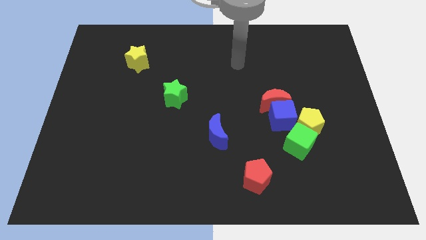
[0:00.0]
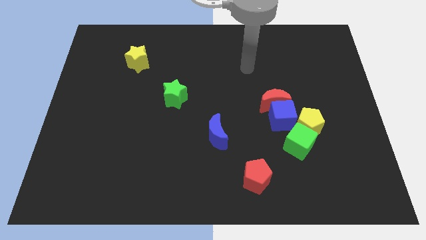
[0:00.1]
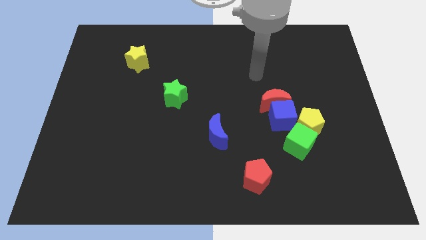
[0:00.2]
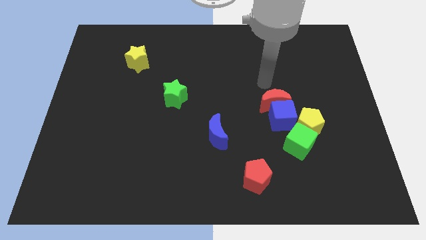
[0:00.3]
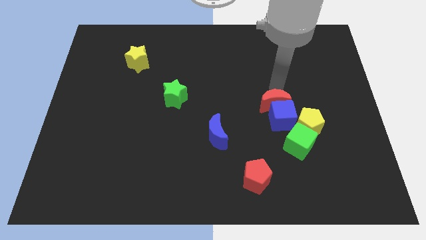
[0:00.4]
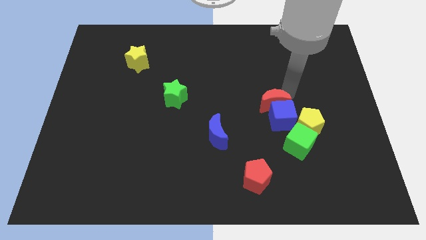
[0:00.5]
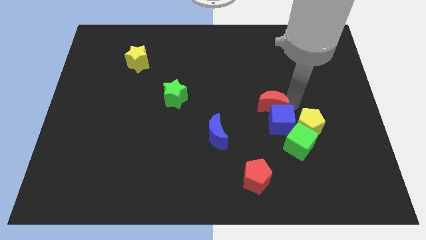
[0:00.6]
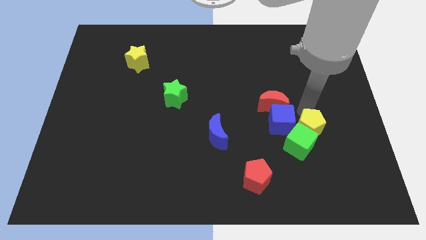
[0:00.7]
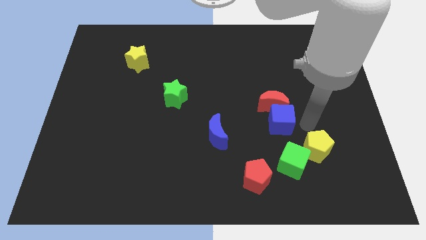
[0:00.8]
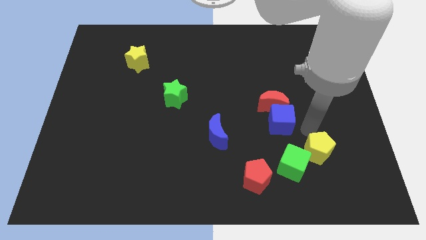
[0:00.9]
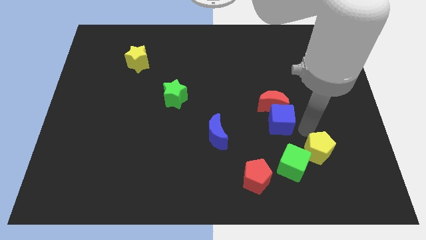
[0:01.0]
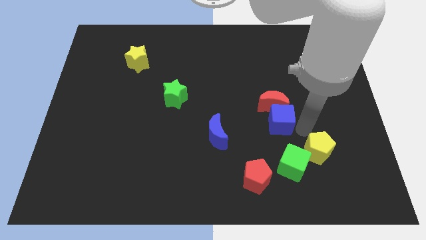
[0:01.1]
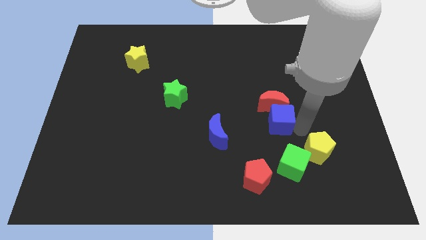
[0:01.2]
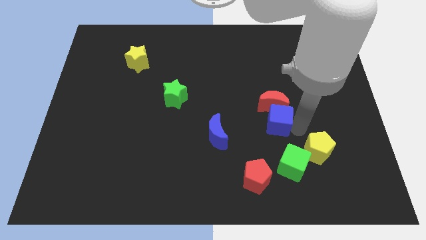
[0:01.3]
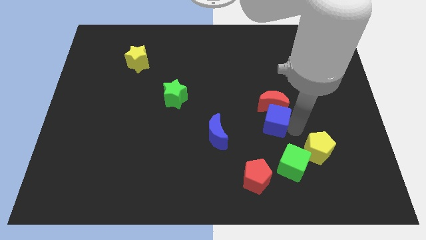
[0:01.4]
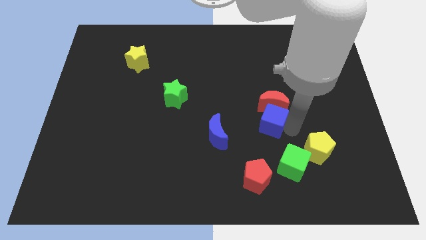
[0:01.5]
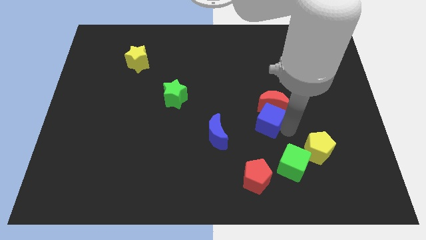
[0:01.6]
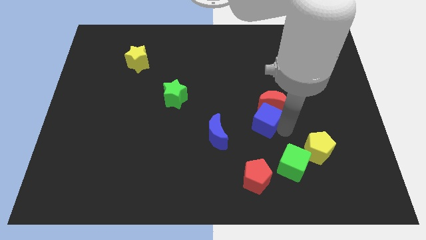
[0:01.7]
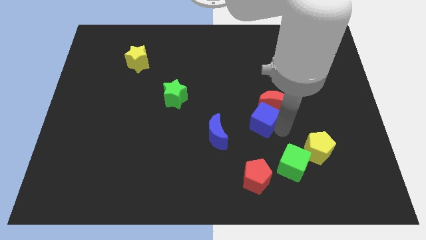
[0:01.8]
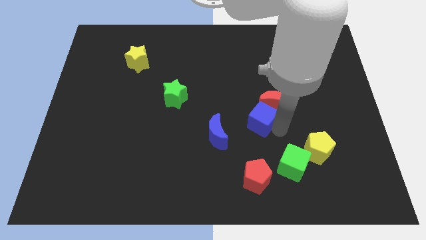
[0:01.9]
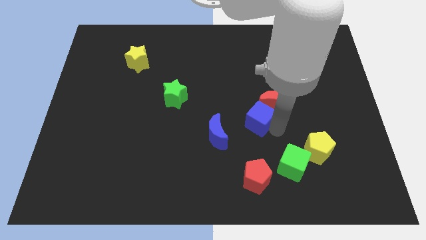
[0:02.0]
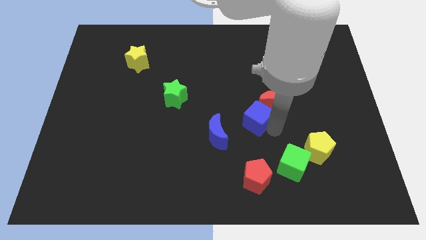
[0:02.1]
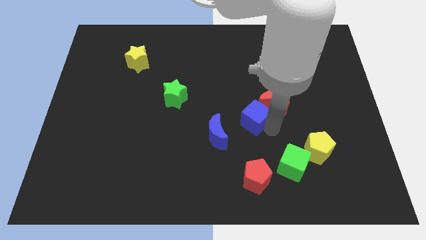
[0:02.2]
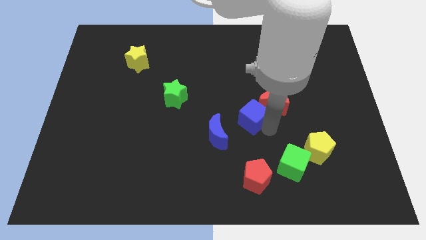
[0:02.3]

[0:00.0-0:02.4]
pull the blue cube apart from the clump

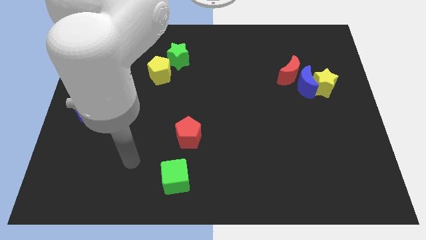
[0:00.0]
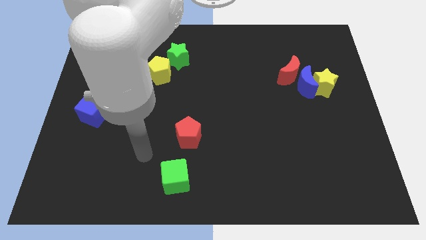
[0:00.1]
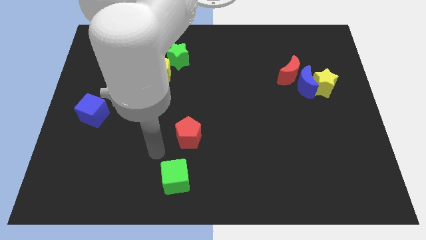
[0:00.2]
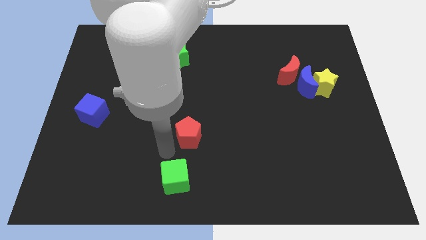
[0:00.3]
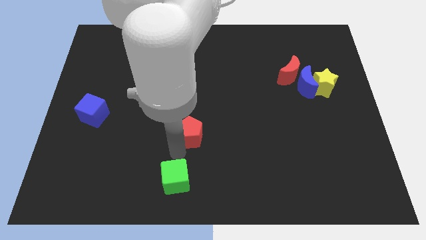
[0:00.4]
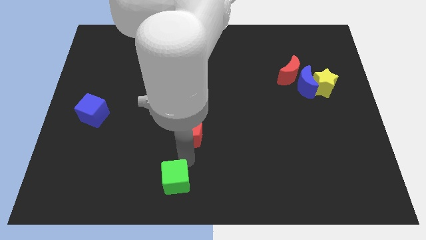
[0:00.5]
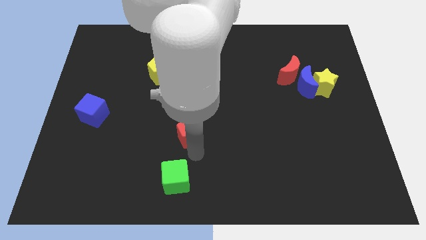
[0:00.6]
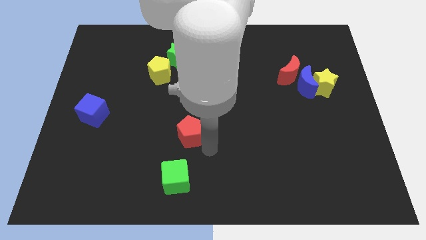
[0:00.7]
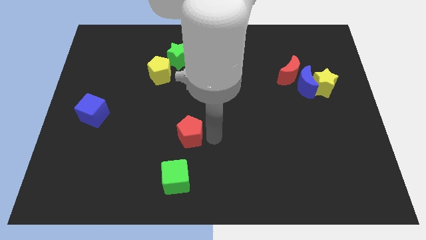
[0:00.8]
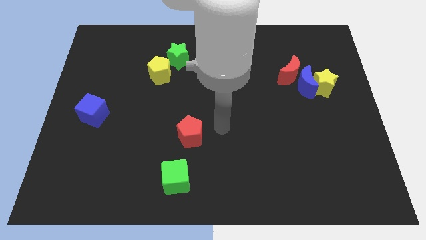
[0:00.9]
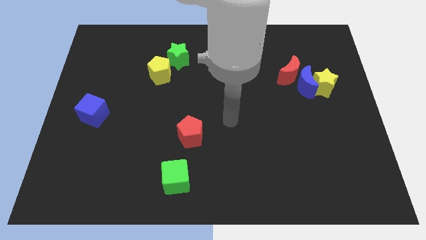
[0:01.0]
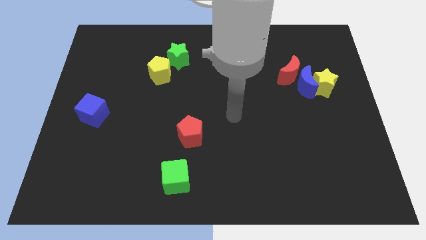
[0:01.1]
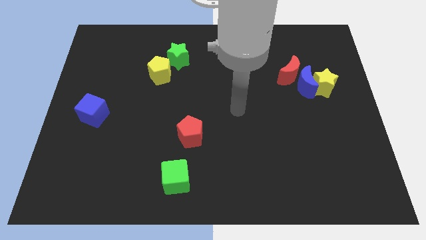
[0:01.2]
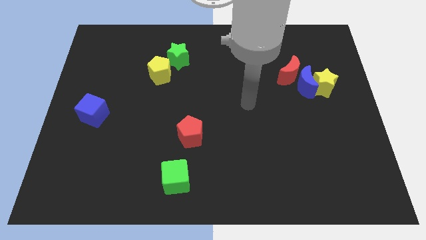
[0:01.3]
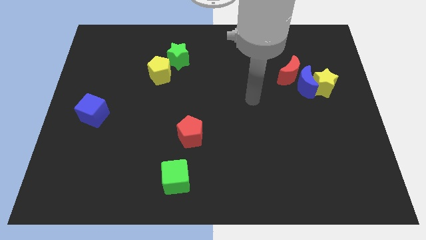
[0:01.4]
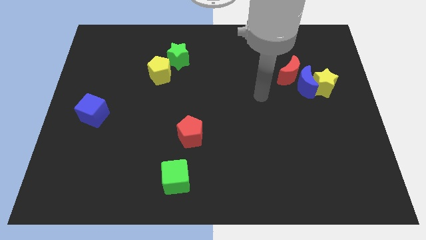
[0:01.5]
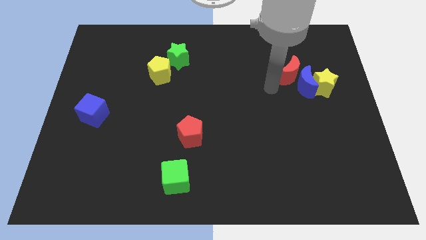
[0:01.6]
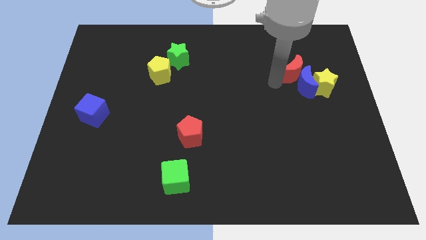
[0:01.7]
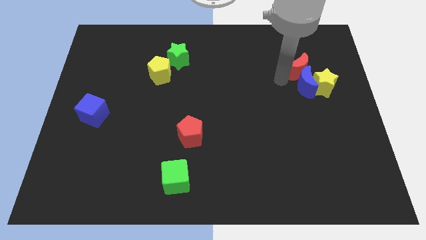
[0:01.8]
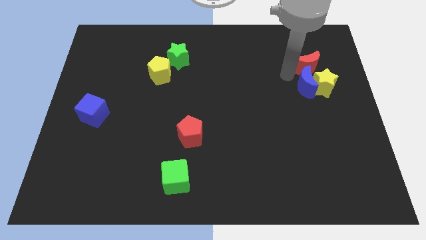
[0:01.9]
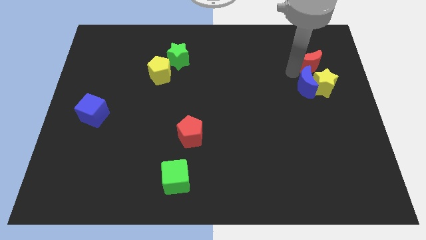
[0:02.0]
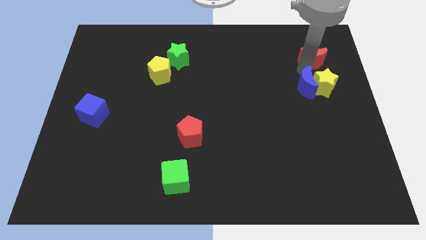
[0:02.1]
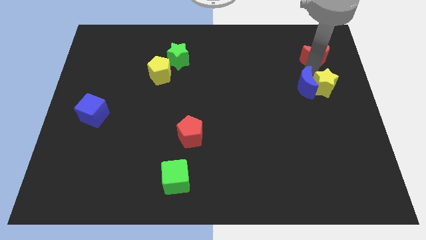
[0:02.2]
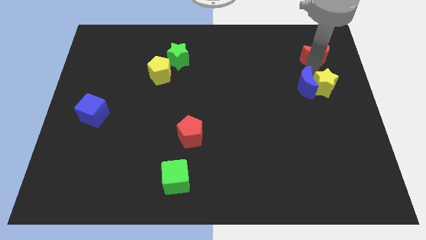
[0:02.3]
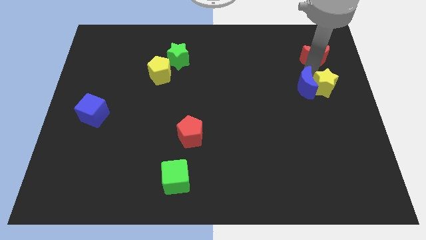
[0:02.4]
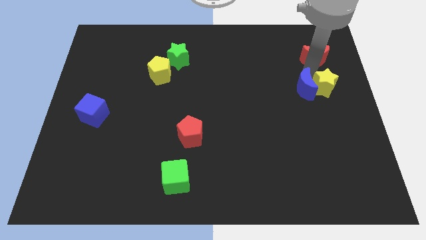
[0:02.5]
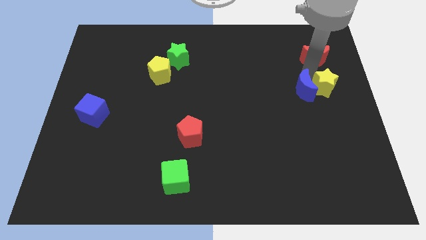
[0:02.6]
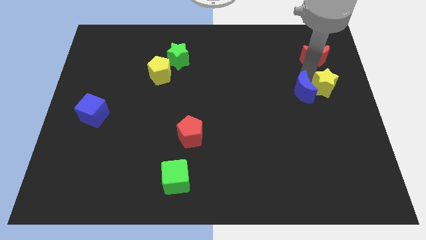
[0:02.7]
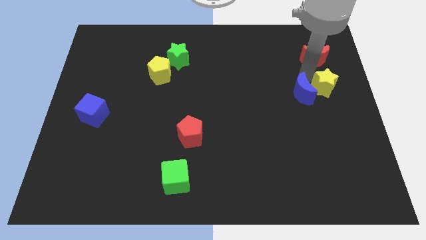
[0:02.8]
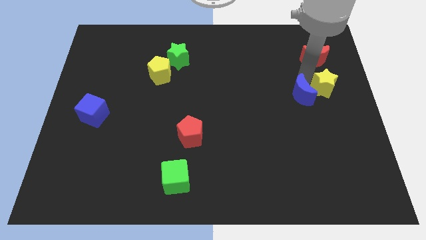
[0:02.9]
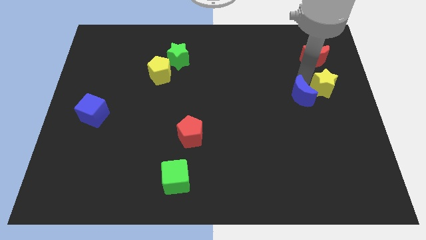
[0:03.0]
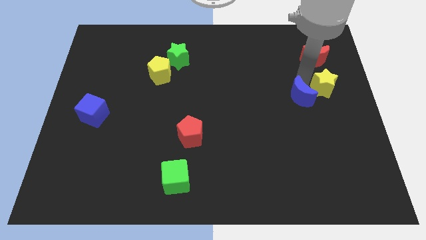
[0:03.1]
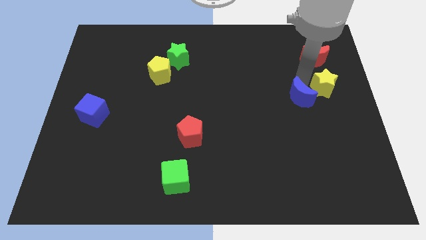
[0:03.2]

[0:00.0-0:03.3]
separate the blue moon from the yellow star and red moon

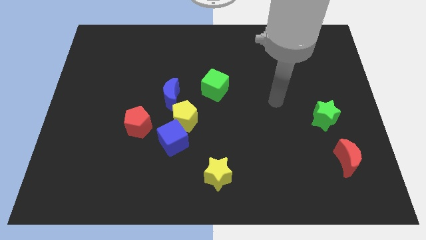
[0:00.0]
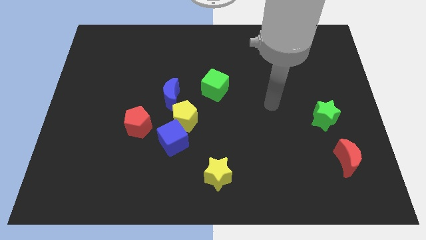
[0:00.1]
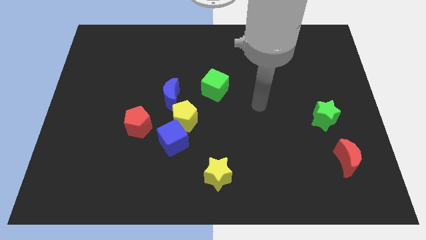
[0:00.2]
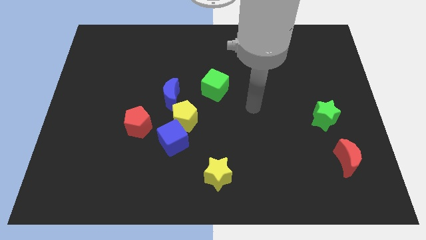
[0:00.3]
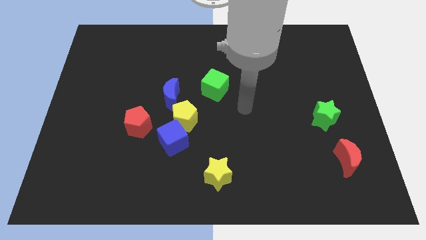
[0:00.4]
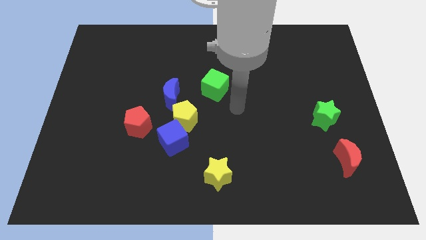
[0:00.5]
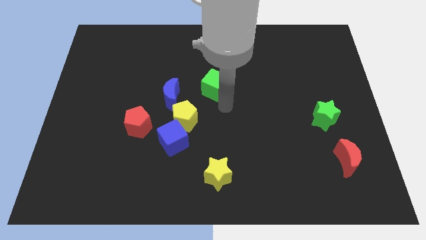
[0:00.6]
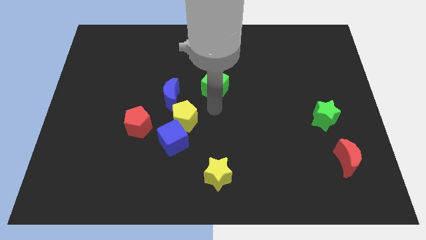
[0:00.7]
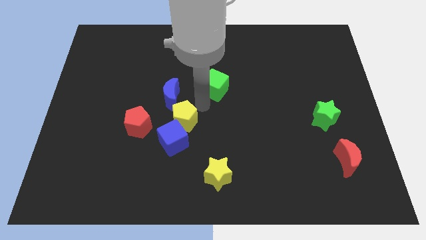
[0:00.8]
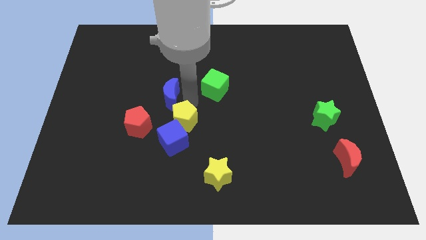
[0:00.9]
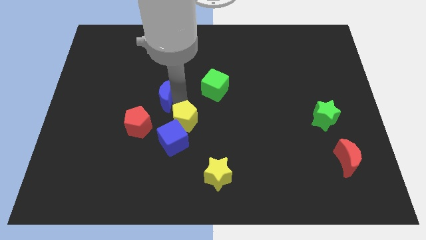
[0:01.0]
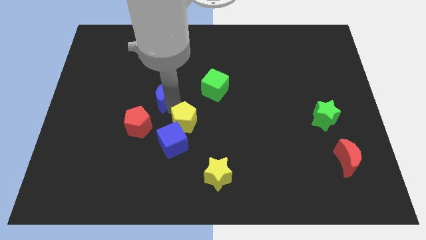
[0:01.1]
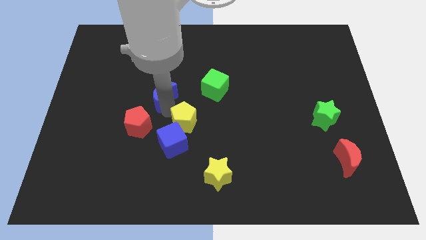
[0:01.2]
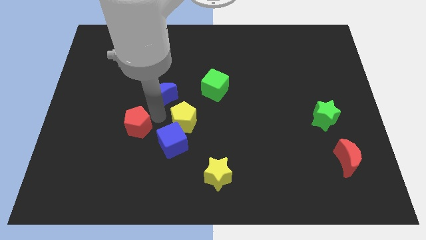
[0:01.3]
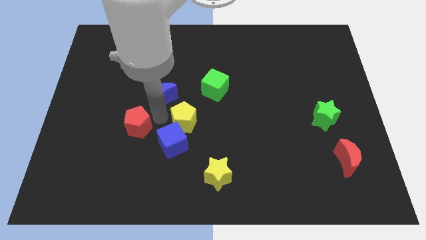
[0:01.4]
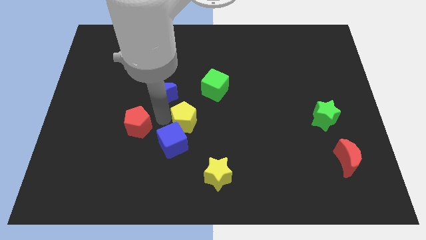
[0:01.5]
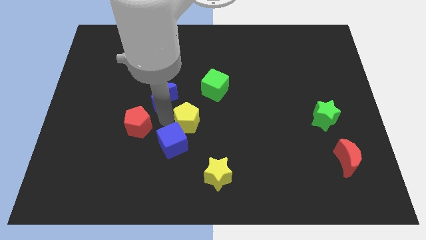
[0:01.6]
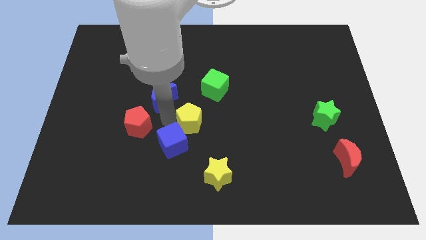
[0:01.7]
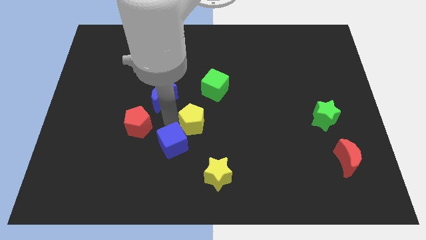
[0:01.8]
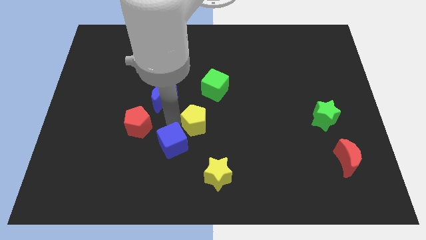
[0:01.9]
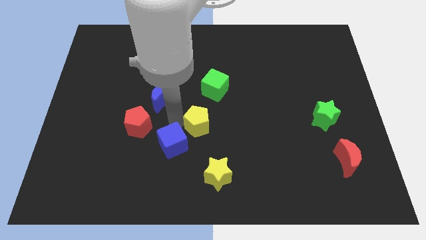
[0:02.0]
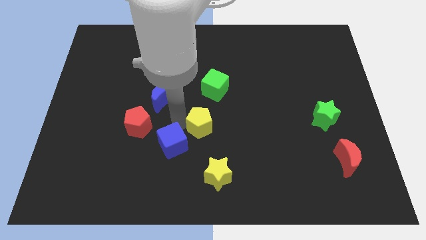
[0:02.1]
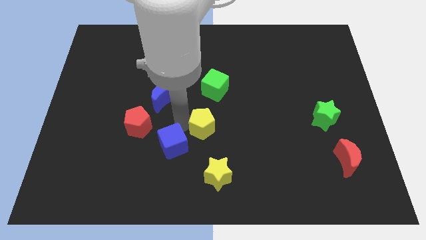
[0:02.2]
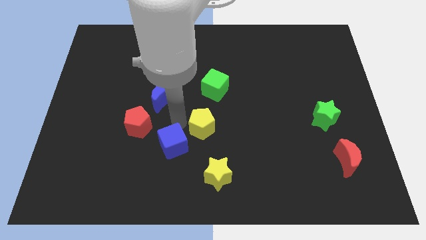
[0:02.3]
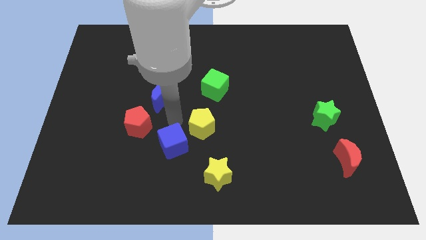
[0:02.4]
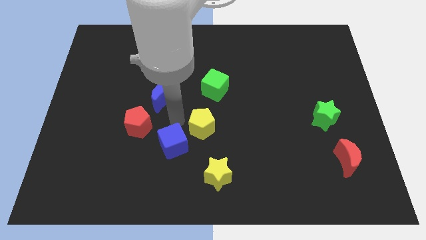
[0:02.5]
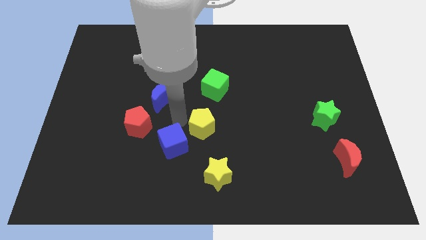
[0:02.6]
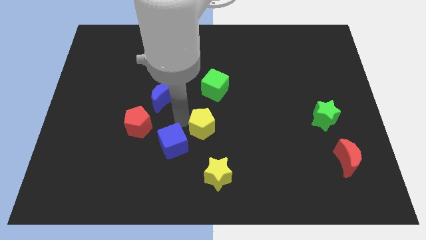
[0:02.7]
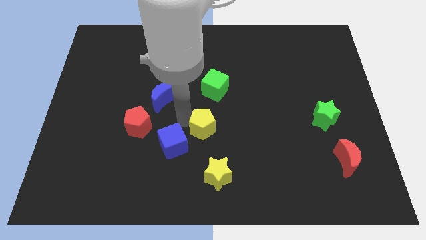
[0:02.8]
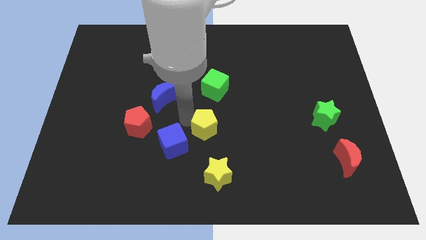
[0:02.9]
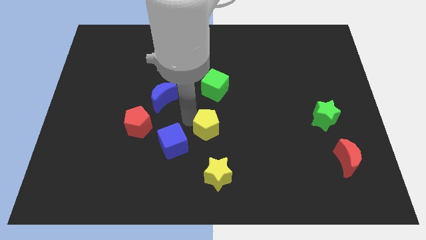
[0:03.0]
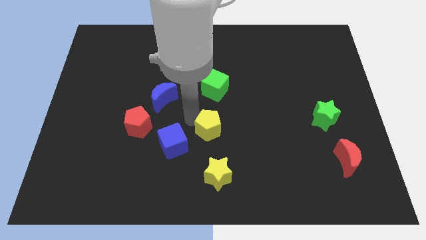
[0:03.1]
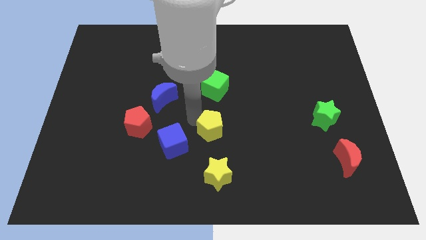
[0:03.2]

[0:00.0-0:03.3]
separate the yellow pentagon from the blue cube and blue moon

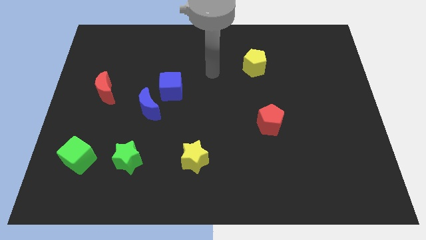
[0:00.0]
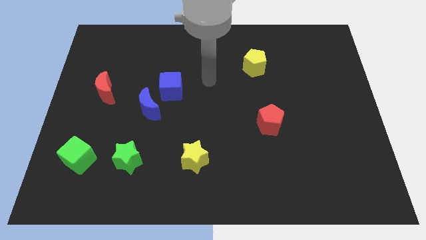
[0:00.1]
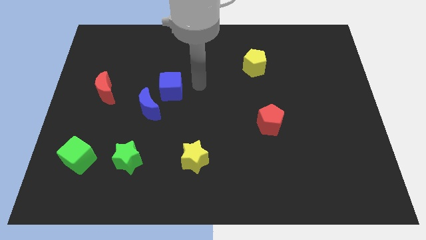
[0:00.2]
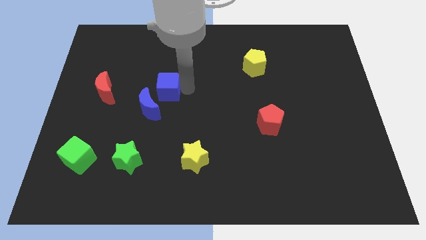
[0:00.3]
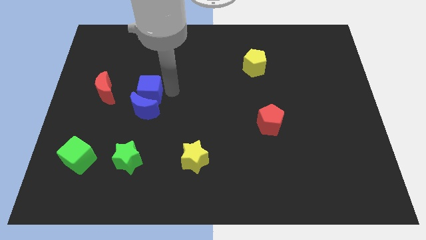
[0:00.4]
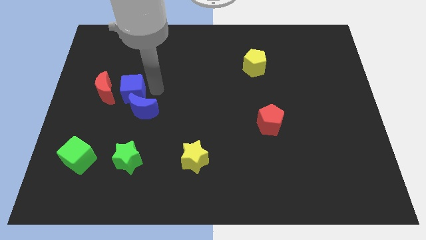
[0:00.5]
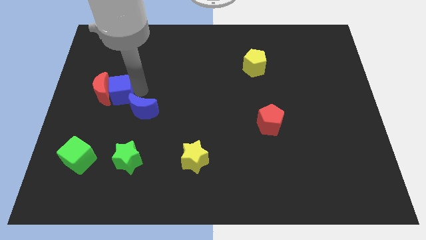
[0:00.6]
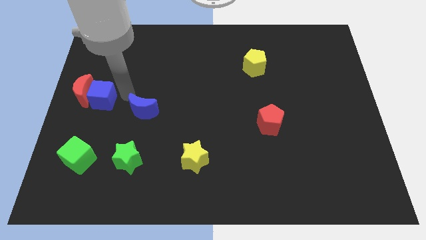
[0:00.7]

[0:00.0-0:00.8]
pull the blue moon apart from the blue cube
